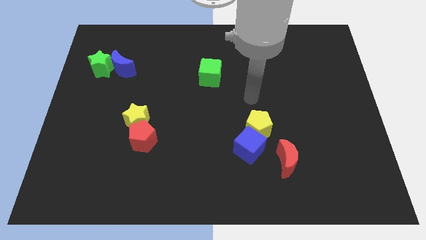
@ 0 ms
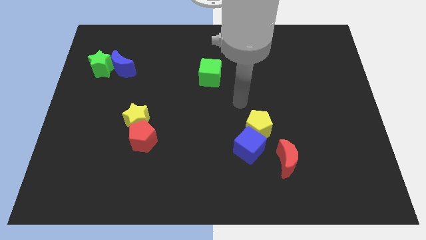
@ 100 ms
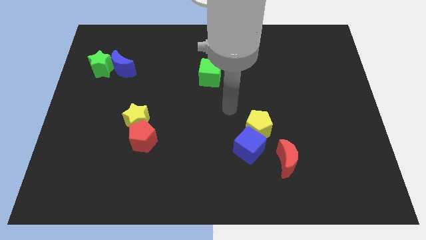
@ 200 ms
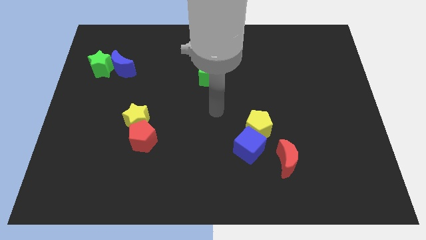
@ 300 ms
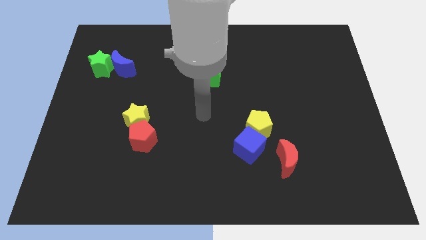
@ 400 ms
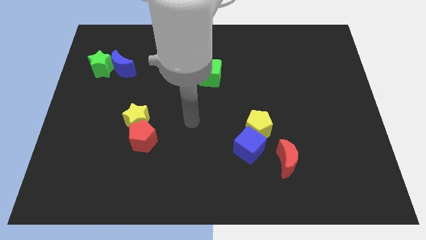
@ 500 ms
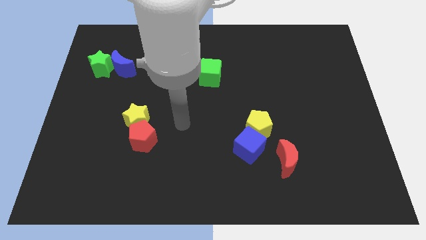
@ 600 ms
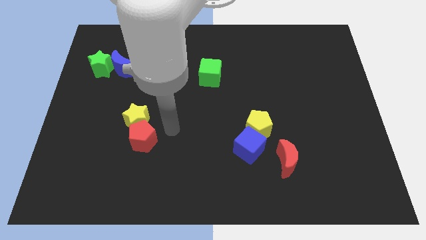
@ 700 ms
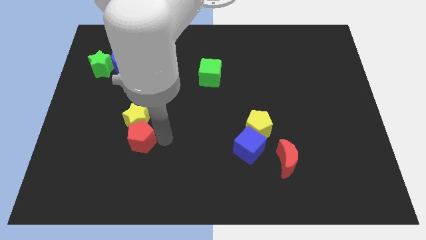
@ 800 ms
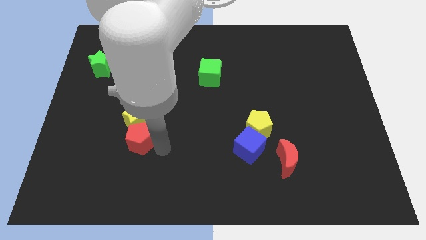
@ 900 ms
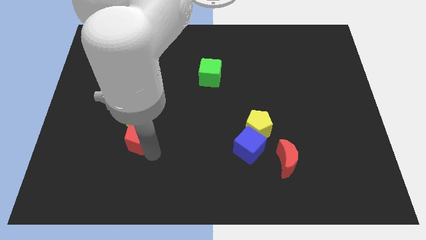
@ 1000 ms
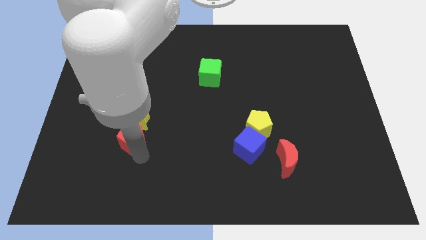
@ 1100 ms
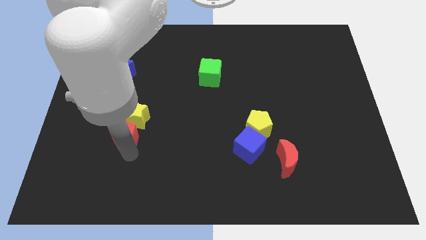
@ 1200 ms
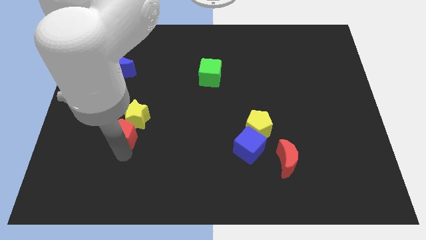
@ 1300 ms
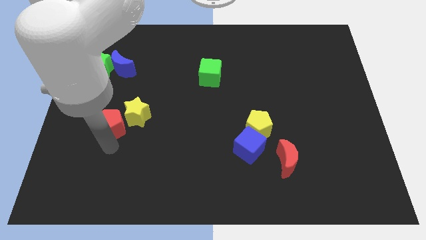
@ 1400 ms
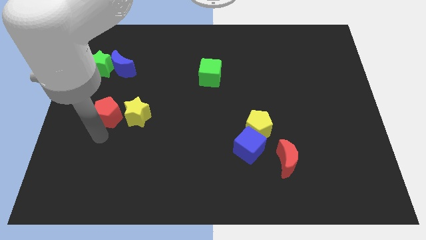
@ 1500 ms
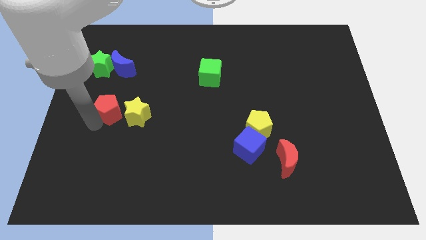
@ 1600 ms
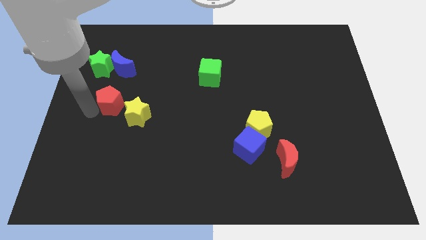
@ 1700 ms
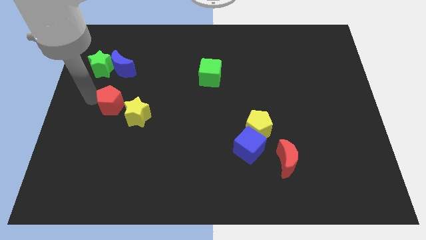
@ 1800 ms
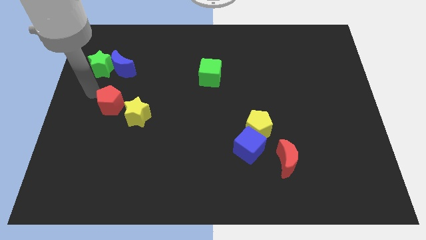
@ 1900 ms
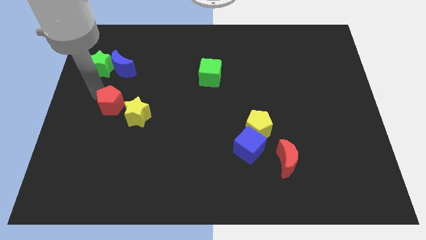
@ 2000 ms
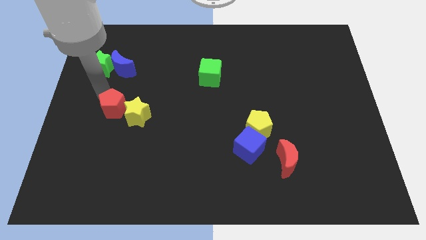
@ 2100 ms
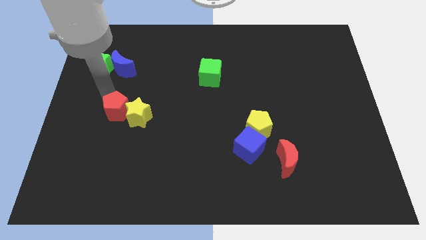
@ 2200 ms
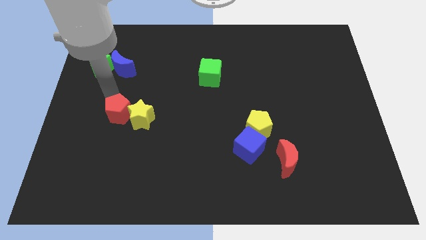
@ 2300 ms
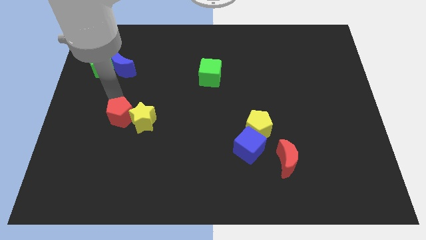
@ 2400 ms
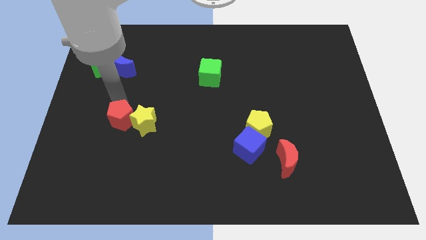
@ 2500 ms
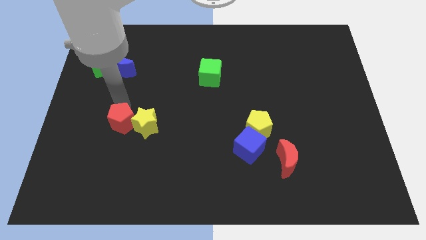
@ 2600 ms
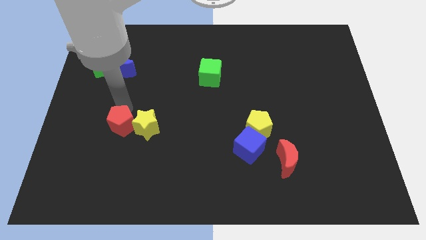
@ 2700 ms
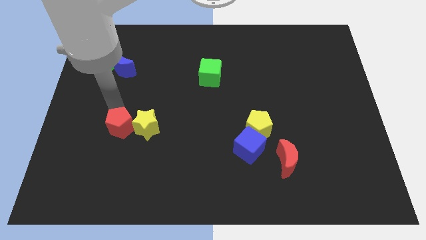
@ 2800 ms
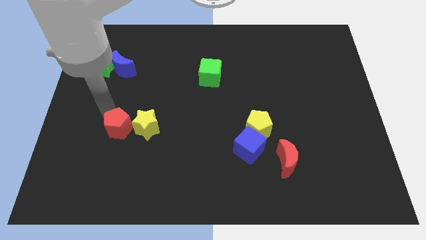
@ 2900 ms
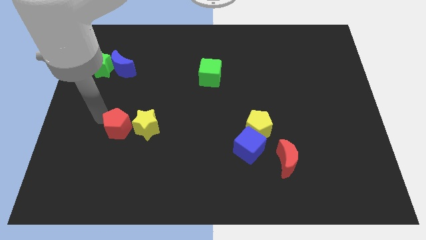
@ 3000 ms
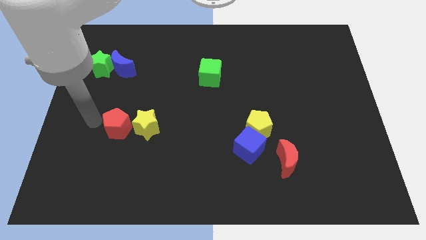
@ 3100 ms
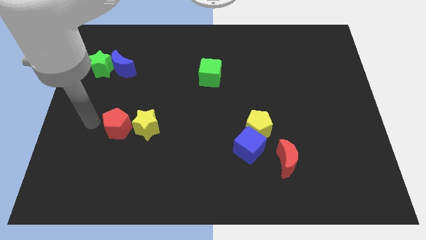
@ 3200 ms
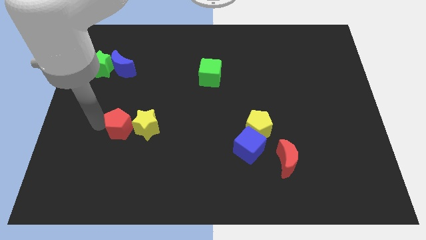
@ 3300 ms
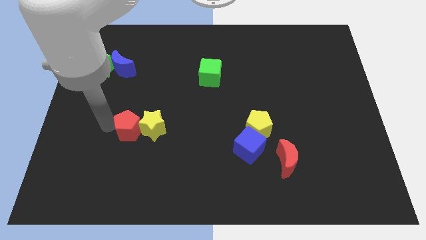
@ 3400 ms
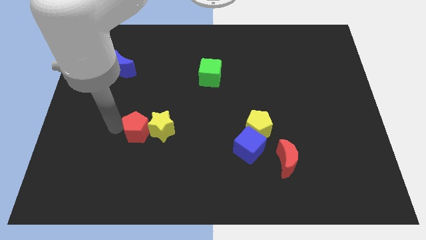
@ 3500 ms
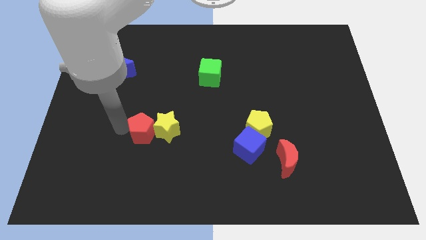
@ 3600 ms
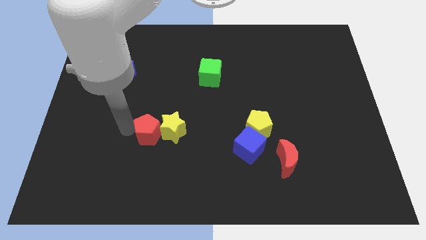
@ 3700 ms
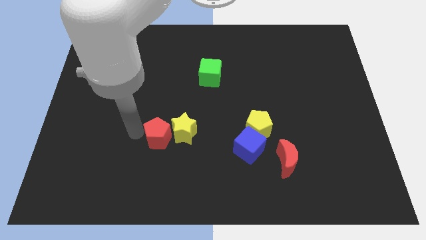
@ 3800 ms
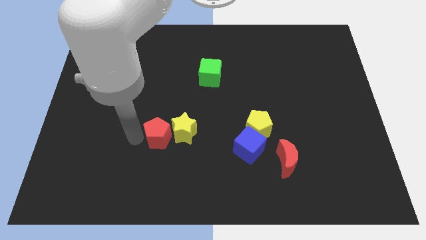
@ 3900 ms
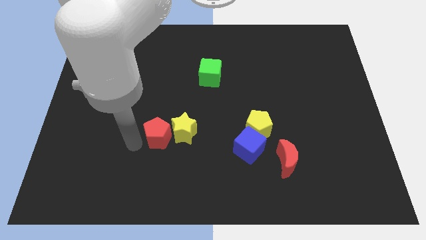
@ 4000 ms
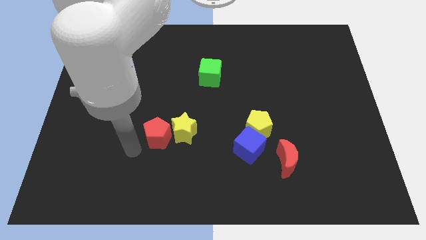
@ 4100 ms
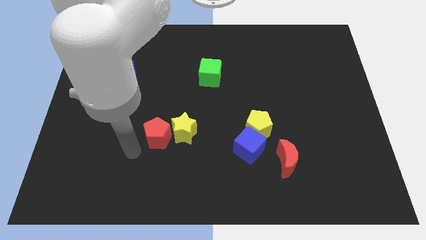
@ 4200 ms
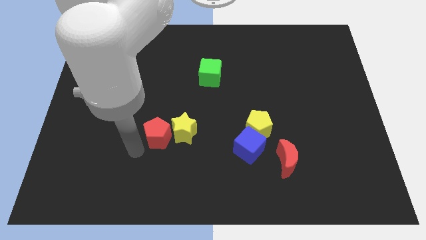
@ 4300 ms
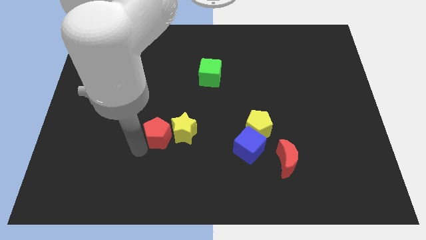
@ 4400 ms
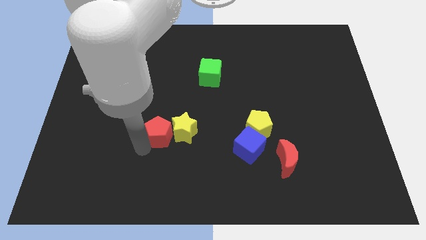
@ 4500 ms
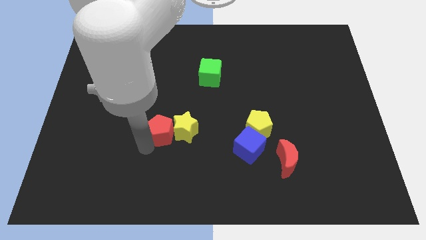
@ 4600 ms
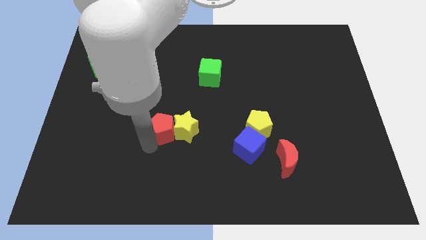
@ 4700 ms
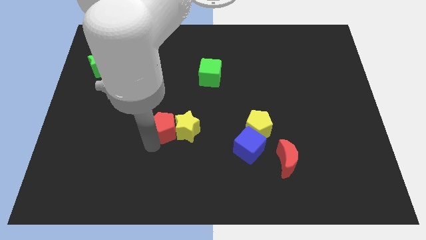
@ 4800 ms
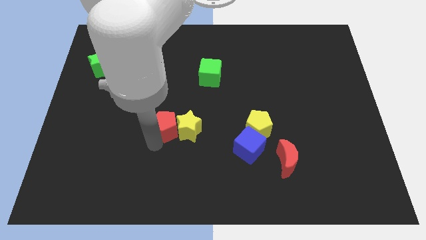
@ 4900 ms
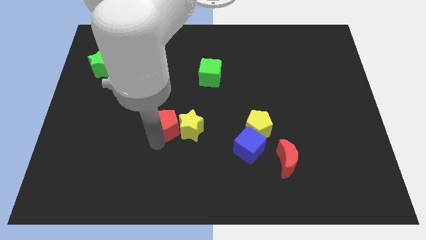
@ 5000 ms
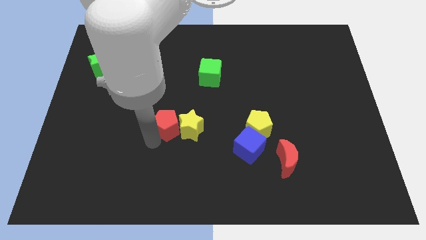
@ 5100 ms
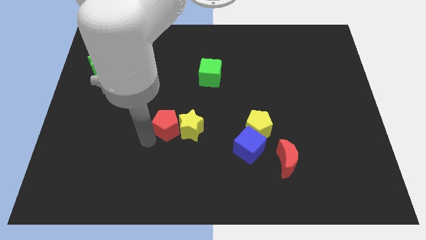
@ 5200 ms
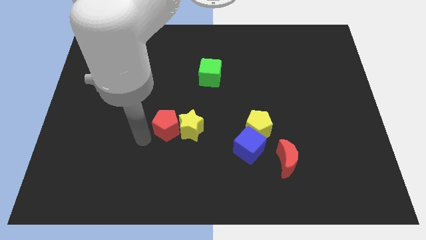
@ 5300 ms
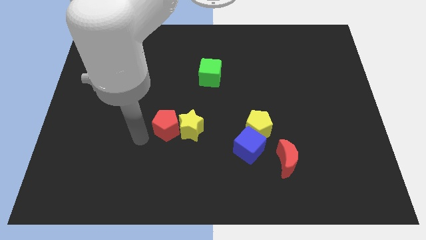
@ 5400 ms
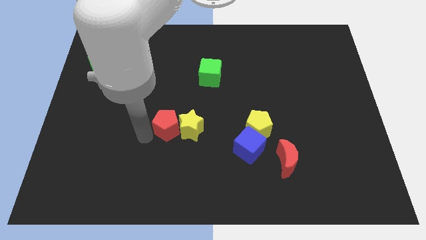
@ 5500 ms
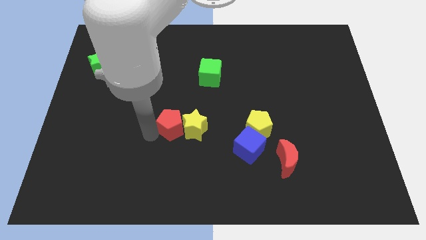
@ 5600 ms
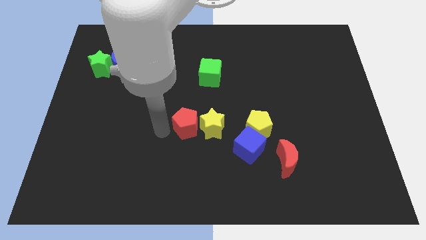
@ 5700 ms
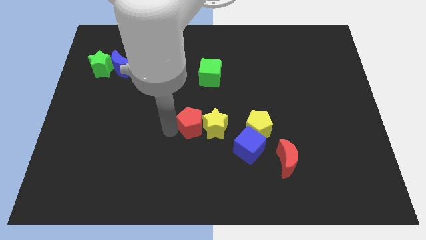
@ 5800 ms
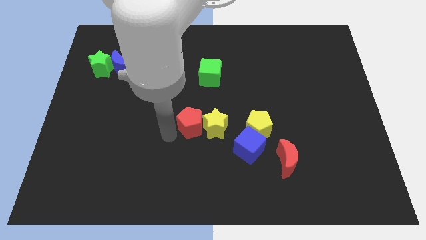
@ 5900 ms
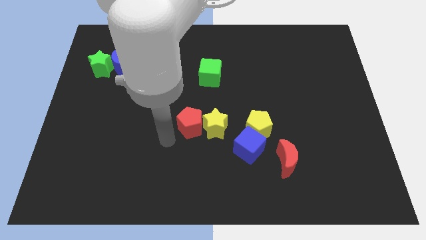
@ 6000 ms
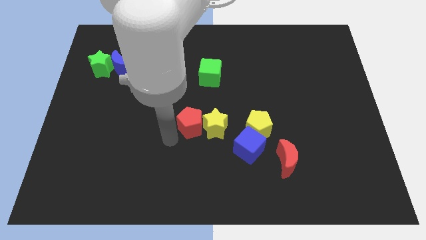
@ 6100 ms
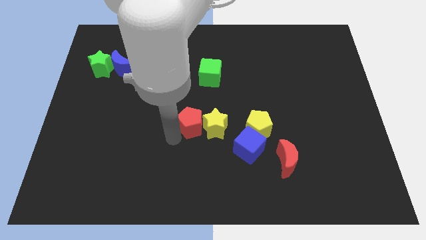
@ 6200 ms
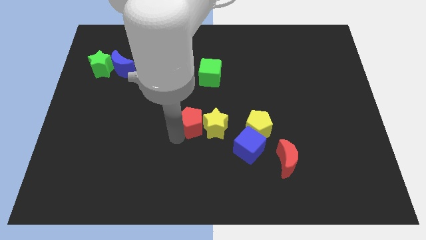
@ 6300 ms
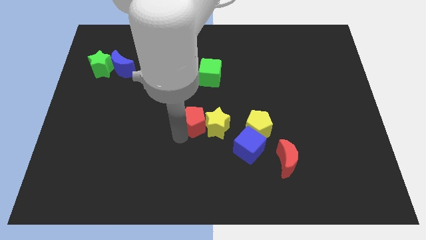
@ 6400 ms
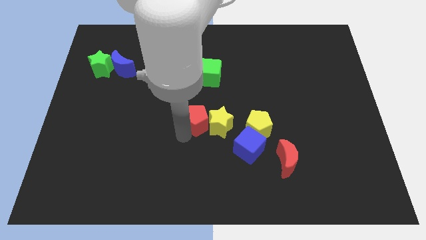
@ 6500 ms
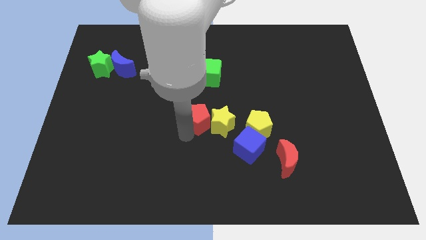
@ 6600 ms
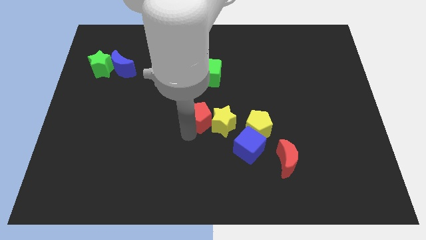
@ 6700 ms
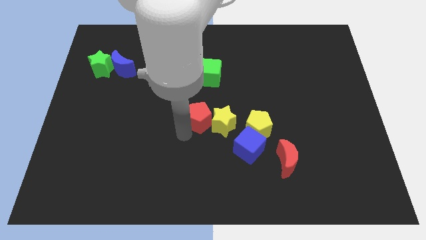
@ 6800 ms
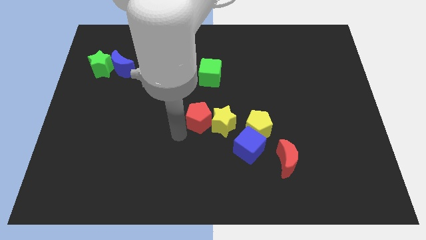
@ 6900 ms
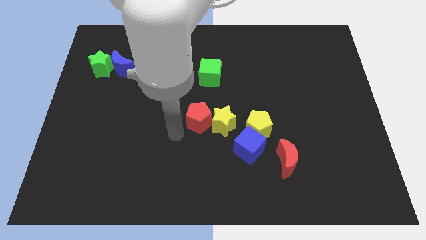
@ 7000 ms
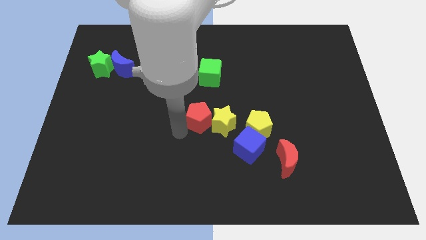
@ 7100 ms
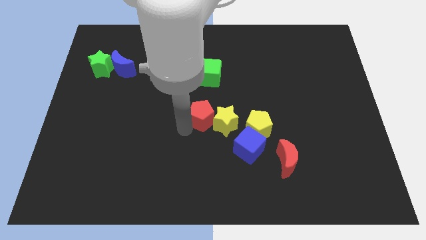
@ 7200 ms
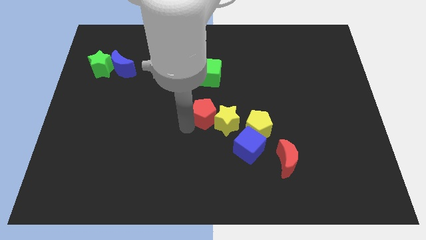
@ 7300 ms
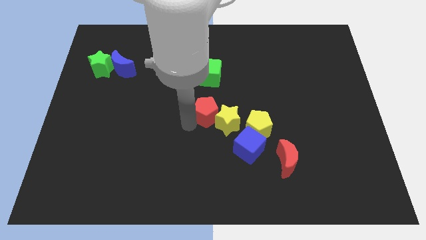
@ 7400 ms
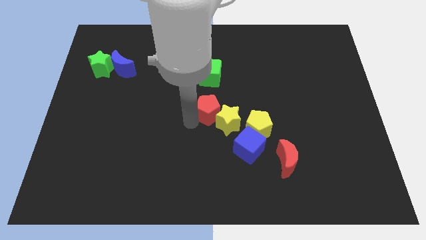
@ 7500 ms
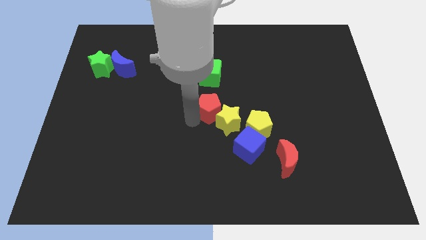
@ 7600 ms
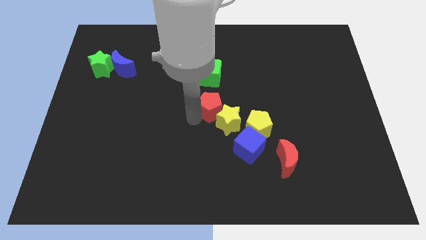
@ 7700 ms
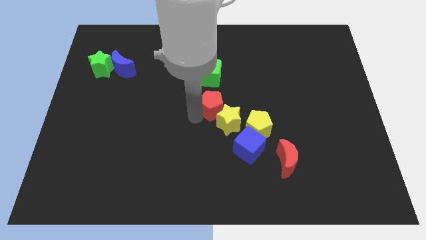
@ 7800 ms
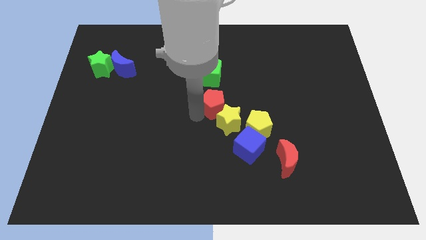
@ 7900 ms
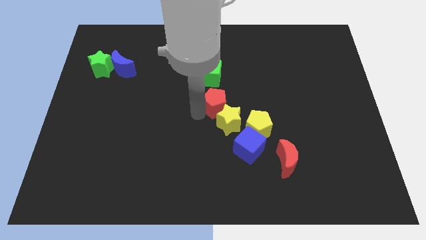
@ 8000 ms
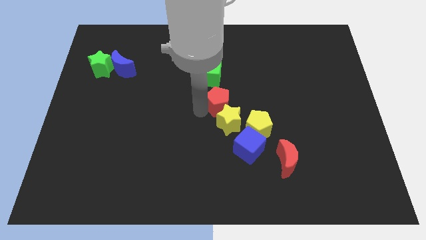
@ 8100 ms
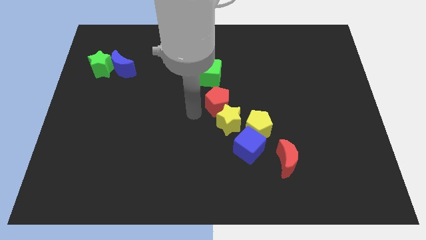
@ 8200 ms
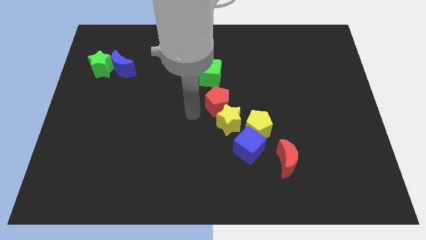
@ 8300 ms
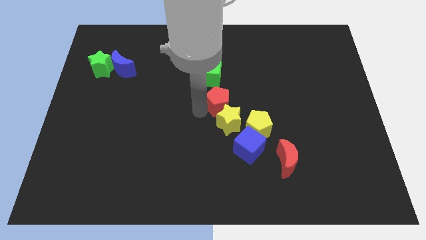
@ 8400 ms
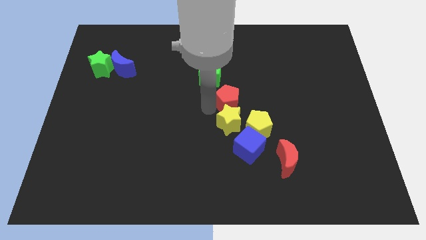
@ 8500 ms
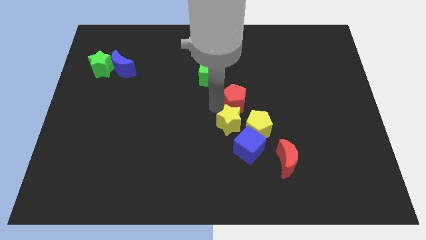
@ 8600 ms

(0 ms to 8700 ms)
move the red pentagon to the top side of the yellow pentagon
